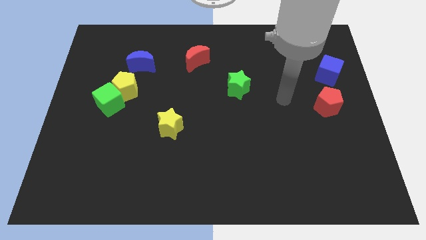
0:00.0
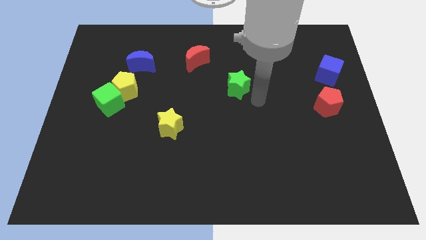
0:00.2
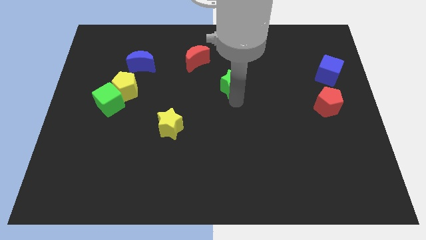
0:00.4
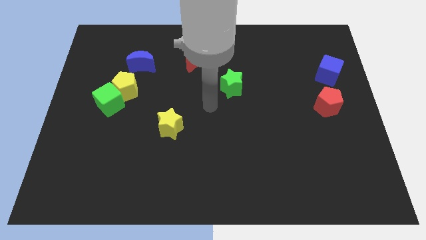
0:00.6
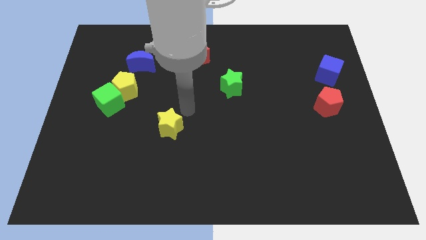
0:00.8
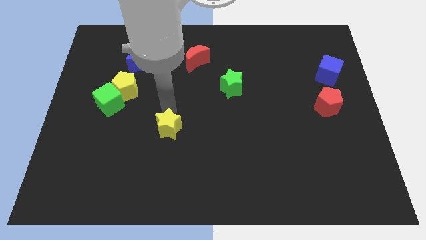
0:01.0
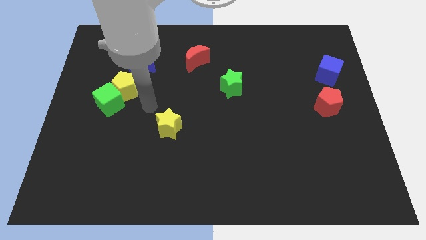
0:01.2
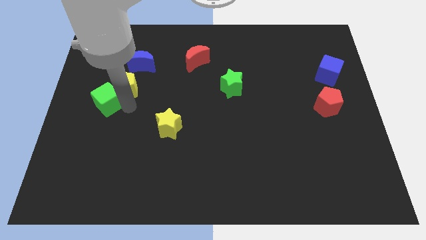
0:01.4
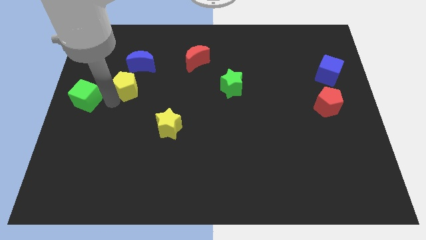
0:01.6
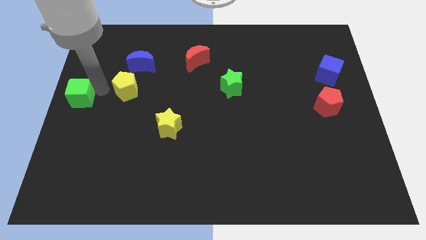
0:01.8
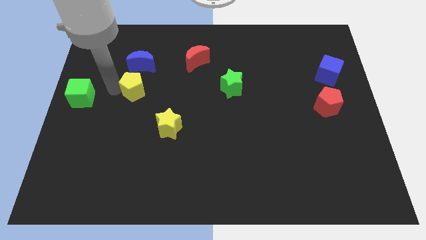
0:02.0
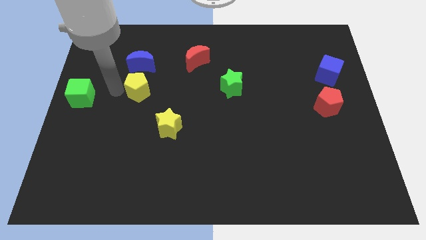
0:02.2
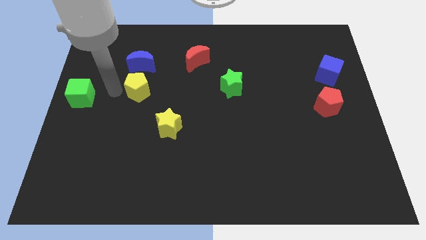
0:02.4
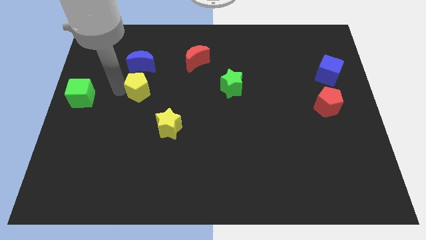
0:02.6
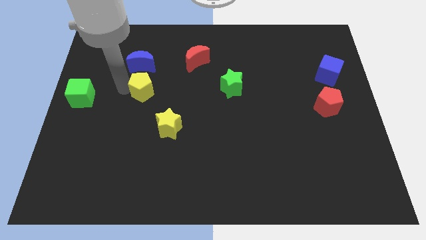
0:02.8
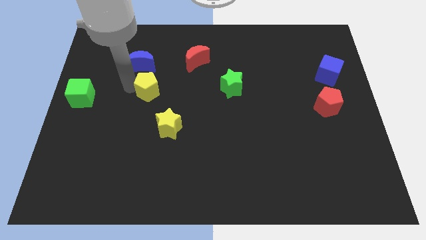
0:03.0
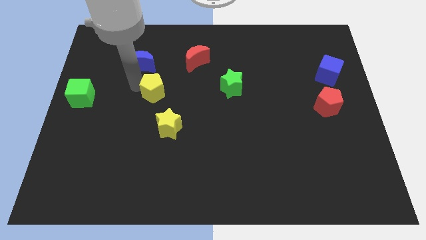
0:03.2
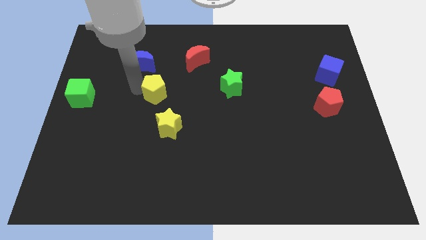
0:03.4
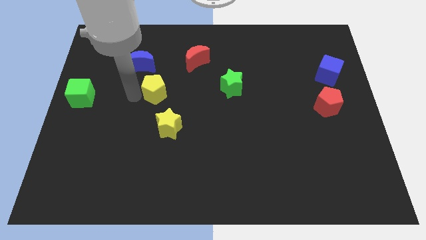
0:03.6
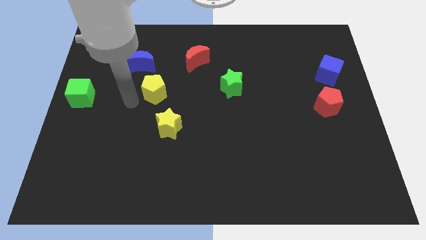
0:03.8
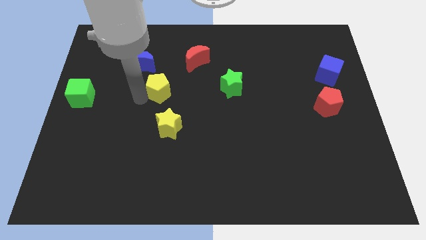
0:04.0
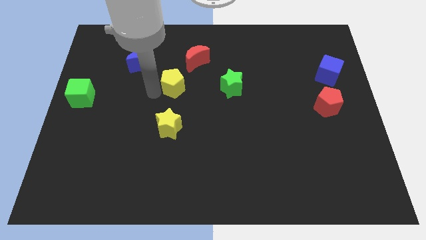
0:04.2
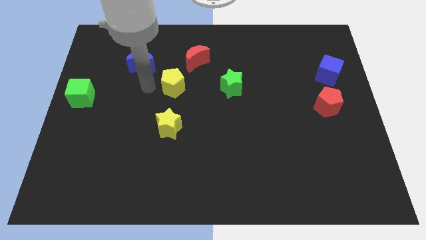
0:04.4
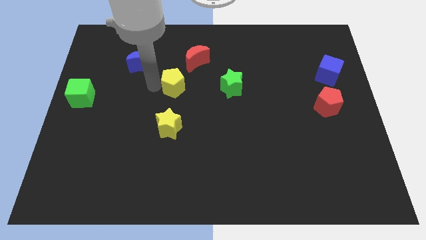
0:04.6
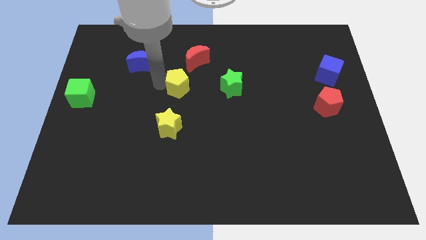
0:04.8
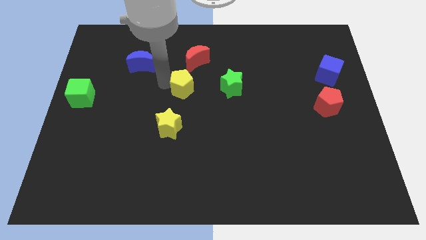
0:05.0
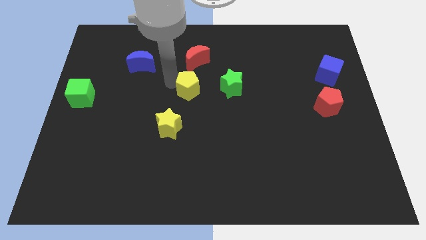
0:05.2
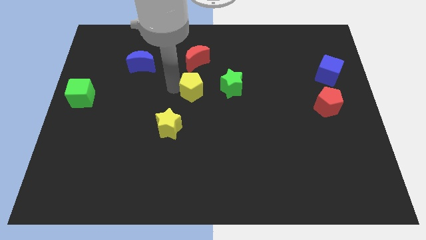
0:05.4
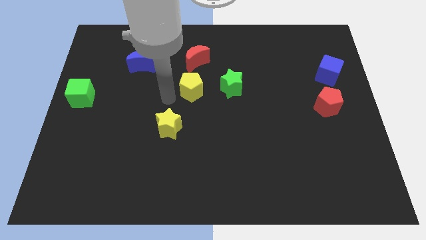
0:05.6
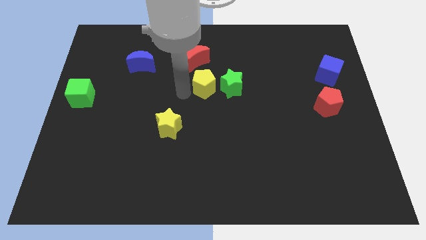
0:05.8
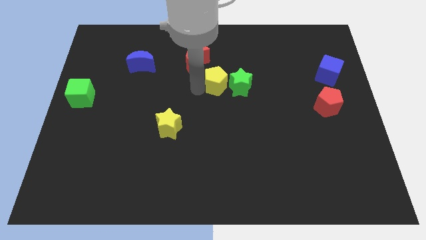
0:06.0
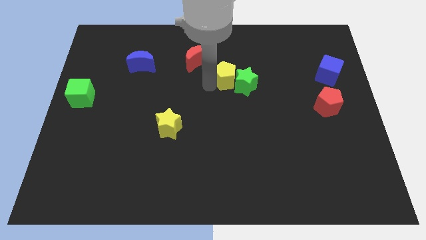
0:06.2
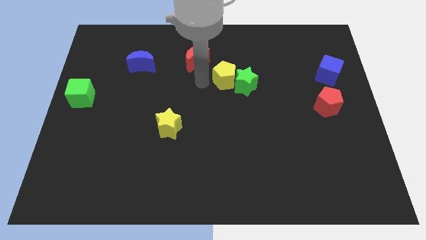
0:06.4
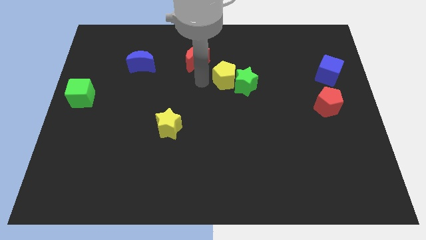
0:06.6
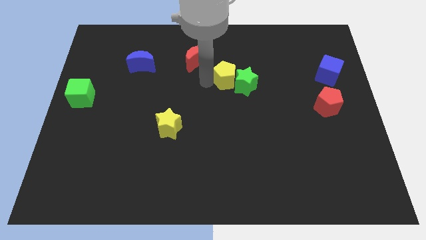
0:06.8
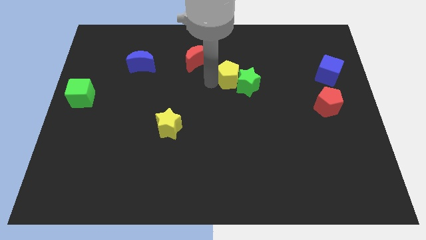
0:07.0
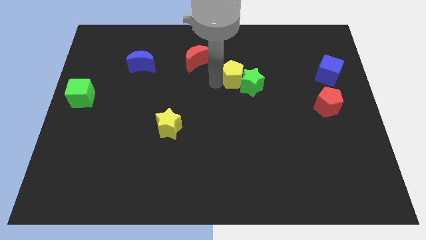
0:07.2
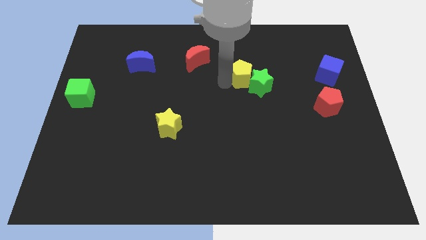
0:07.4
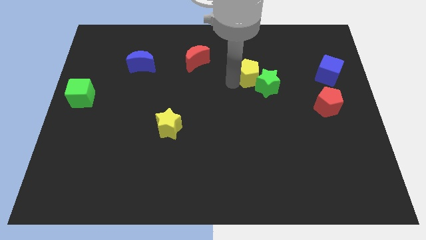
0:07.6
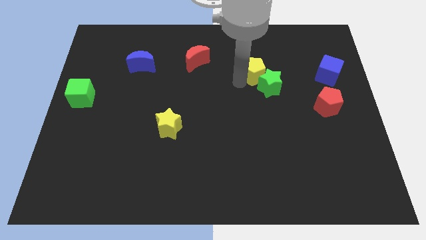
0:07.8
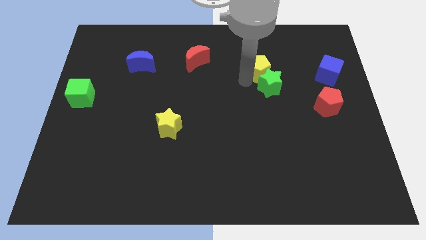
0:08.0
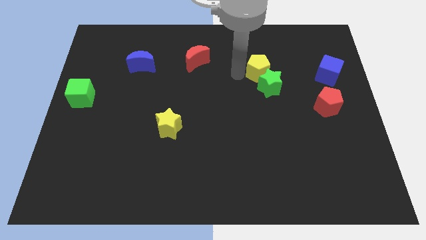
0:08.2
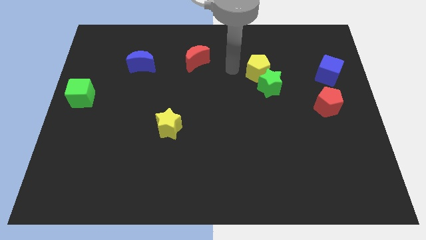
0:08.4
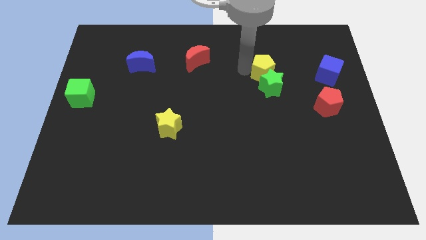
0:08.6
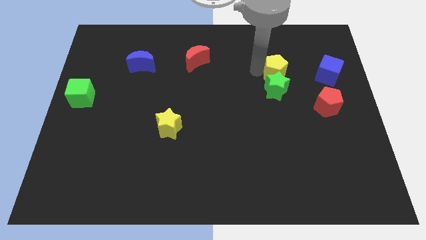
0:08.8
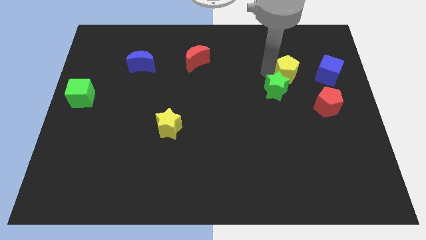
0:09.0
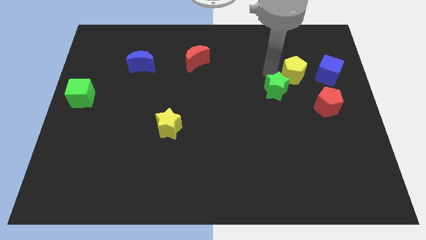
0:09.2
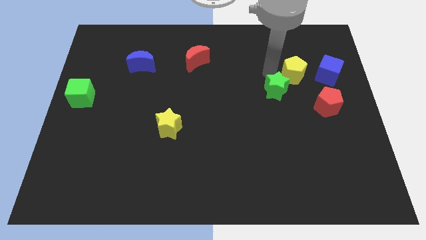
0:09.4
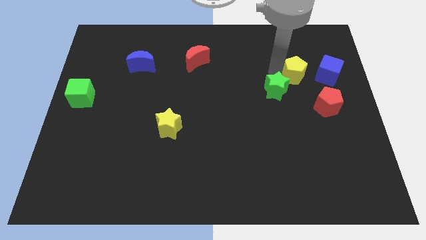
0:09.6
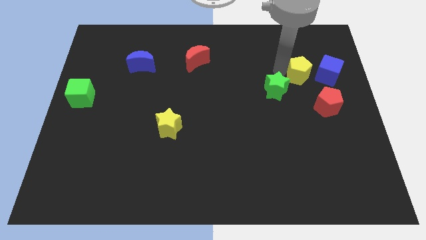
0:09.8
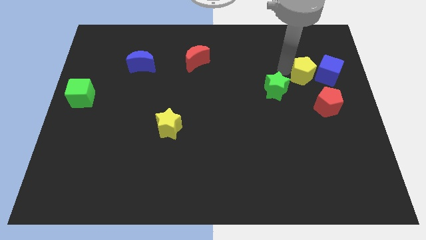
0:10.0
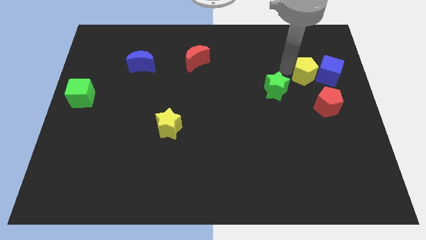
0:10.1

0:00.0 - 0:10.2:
push the yellow pentagon towards the blue cube

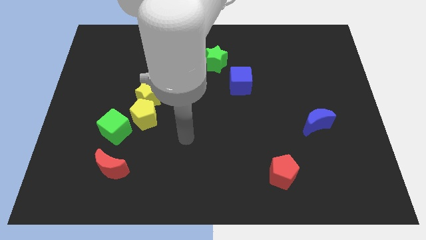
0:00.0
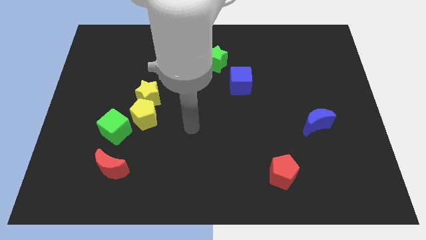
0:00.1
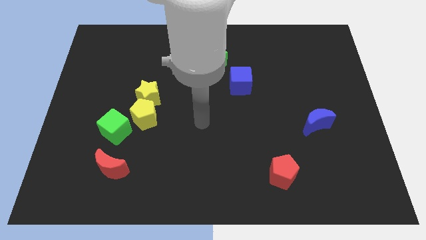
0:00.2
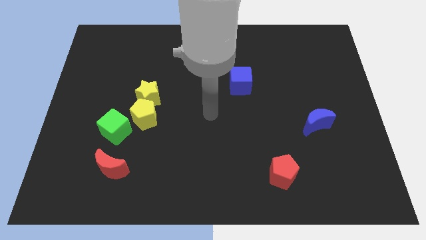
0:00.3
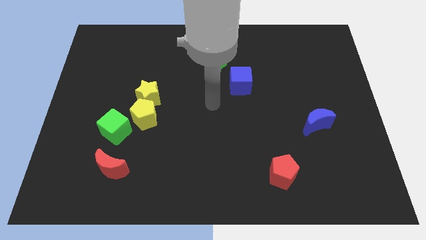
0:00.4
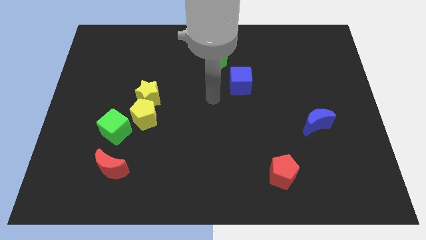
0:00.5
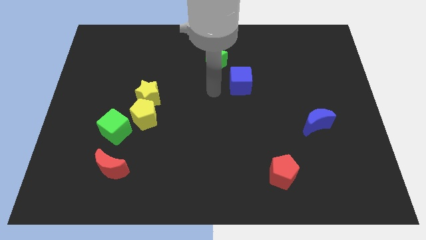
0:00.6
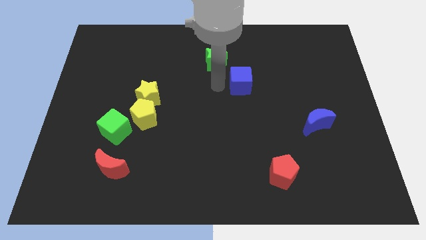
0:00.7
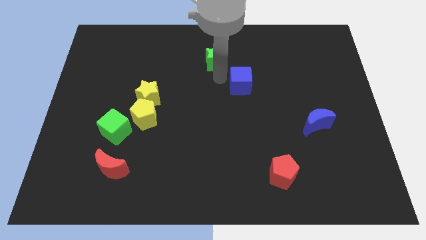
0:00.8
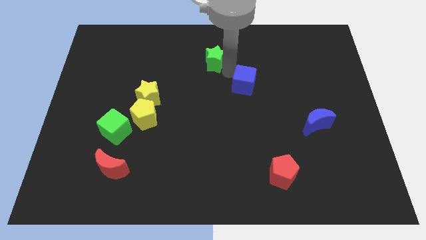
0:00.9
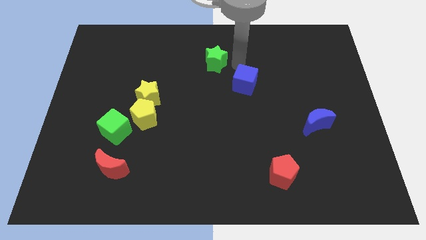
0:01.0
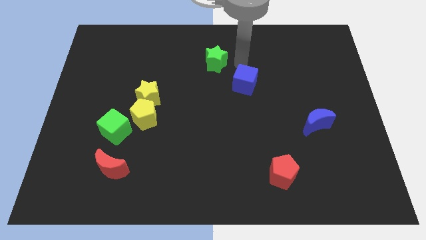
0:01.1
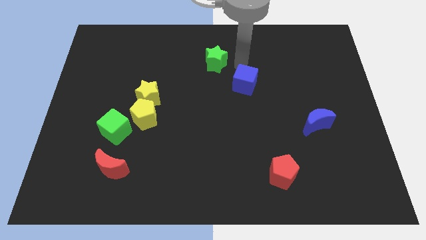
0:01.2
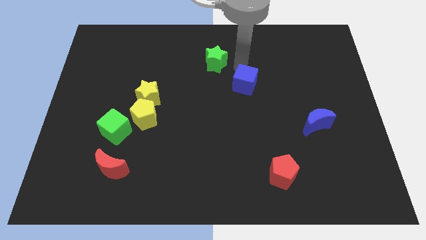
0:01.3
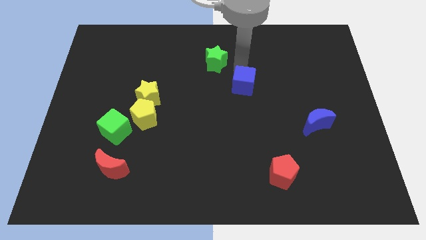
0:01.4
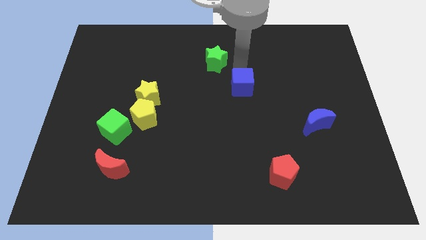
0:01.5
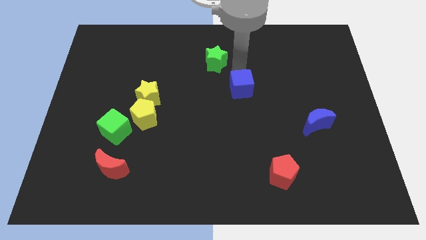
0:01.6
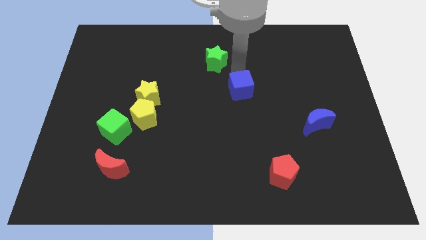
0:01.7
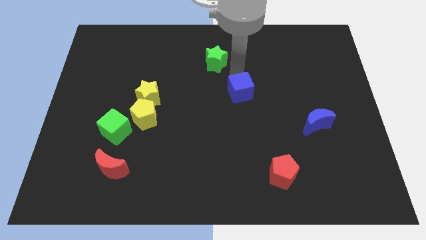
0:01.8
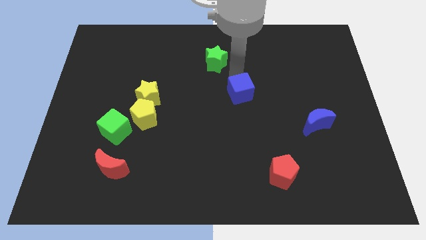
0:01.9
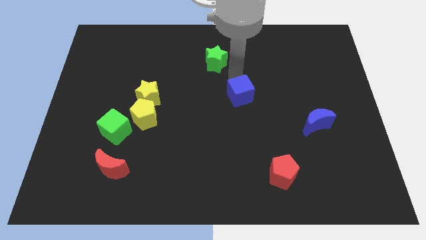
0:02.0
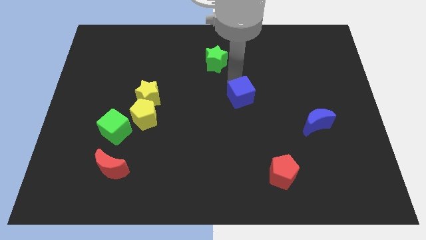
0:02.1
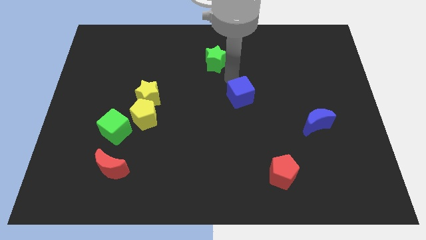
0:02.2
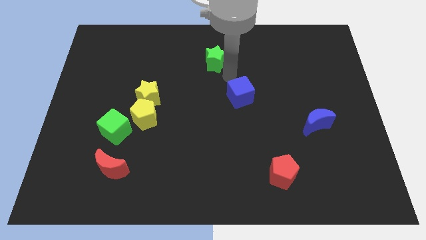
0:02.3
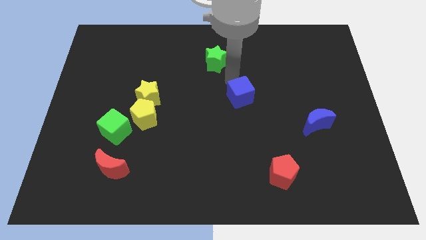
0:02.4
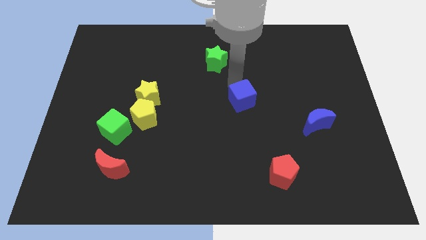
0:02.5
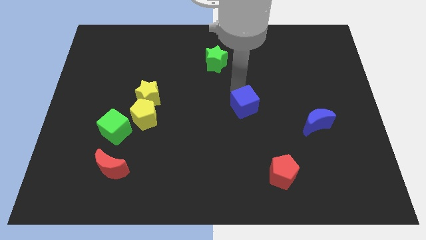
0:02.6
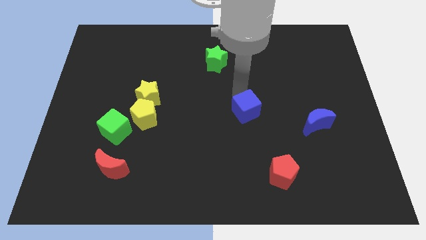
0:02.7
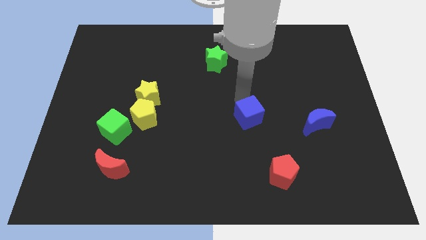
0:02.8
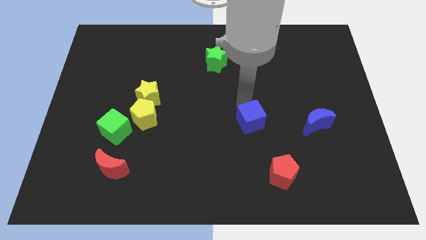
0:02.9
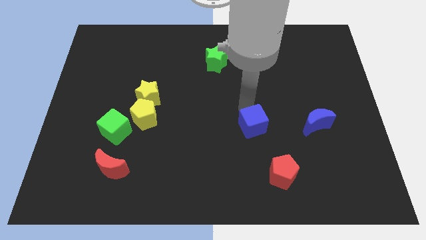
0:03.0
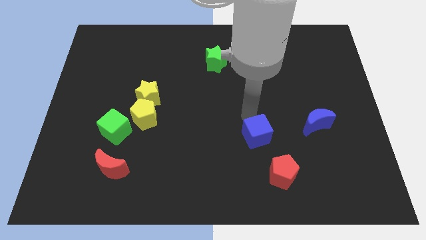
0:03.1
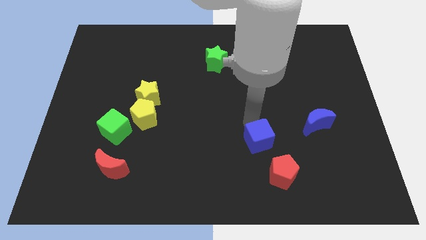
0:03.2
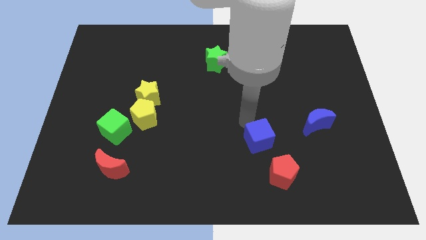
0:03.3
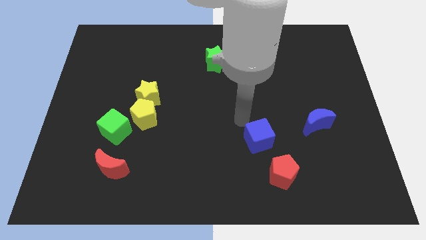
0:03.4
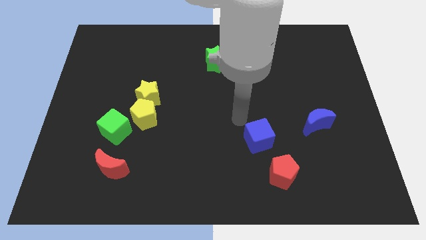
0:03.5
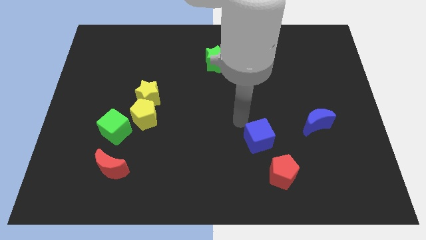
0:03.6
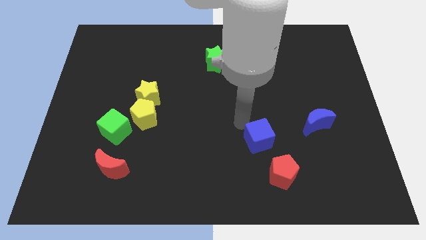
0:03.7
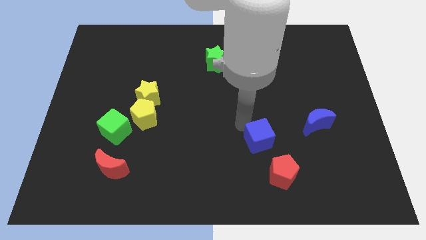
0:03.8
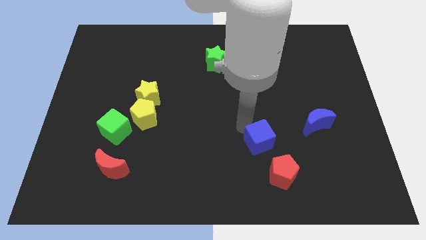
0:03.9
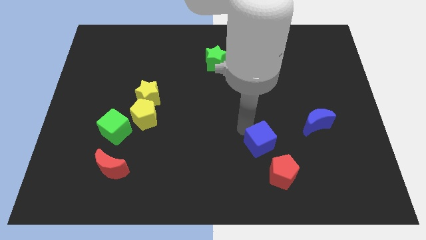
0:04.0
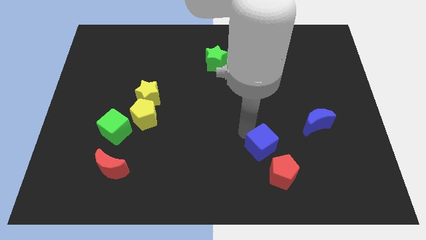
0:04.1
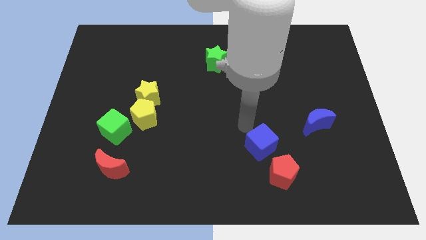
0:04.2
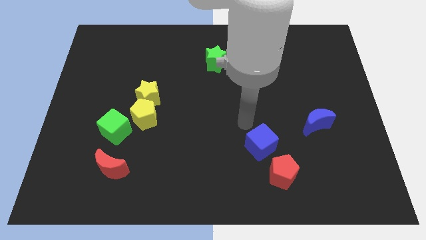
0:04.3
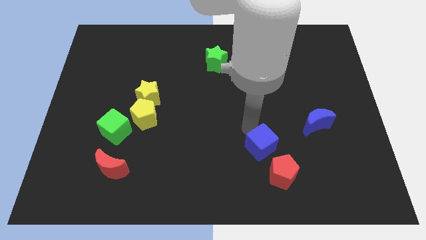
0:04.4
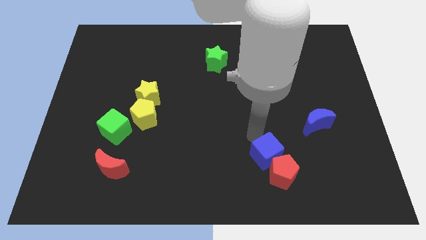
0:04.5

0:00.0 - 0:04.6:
put the blue cube close to the red pentagon
